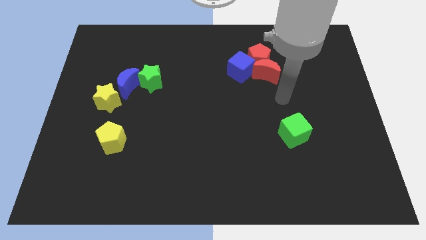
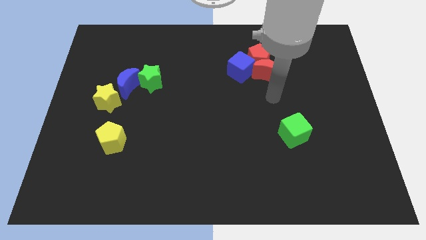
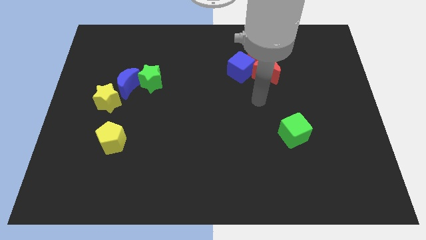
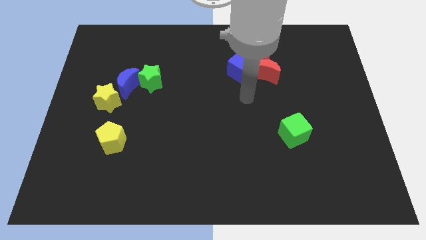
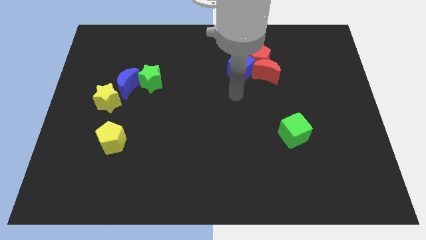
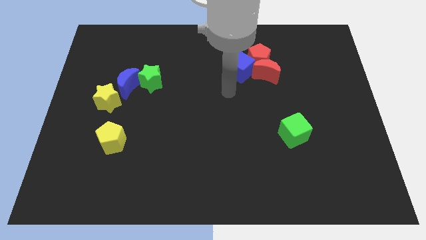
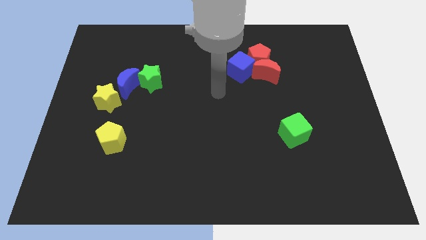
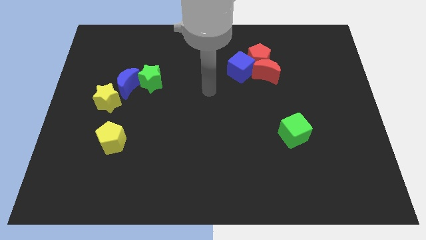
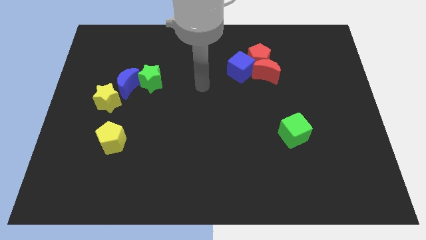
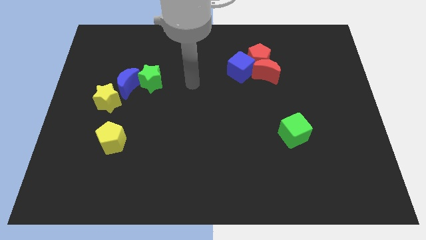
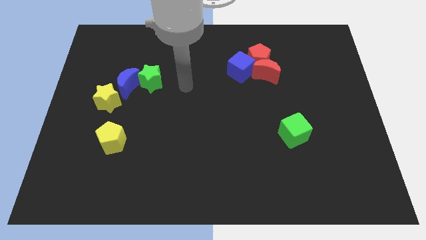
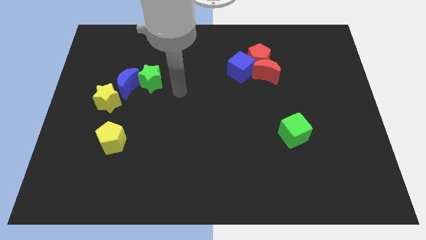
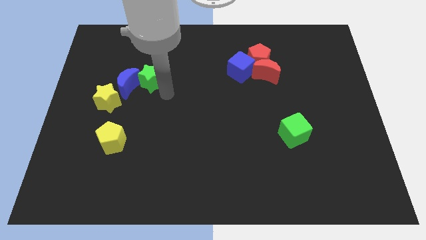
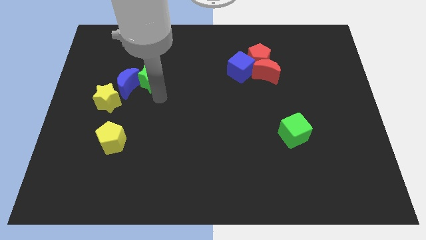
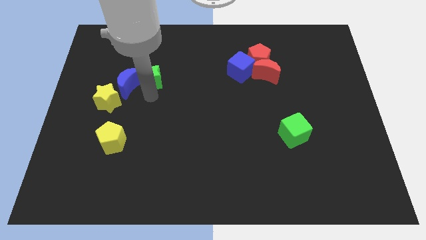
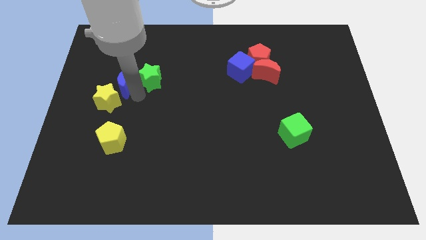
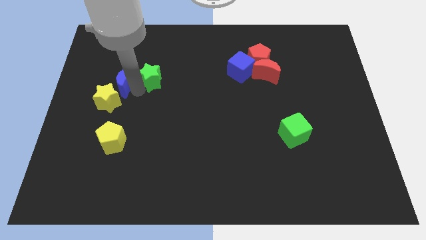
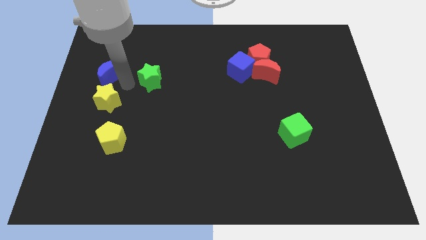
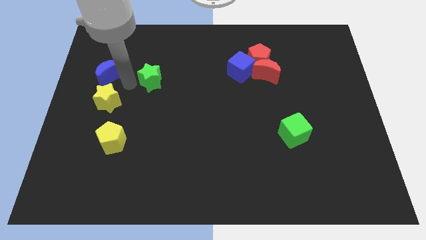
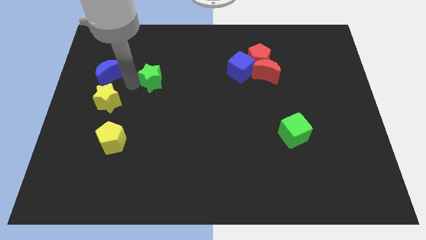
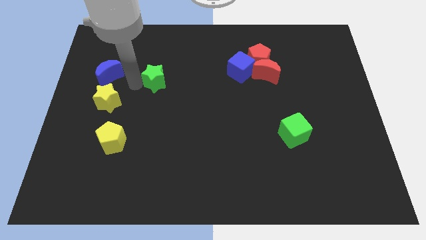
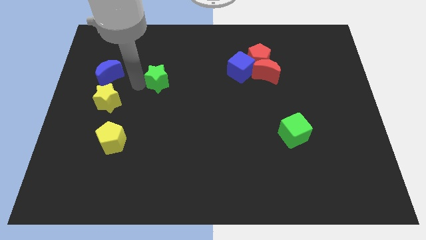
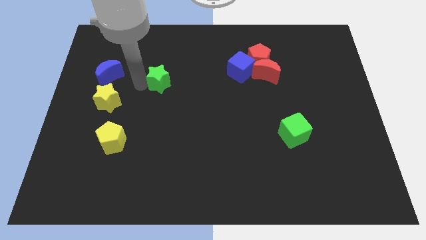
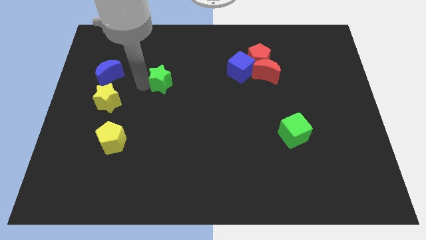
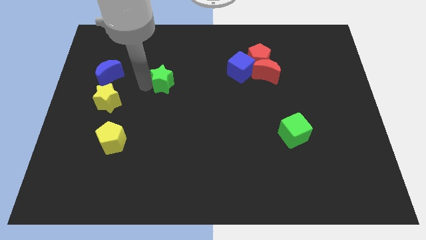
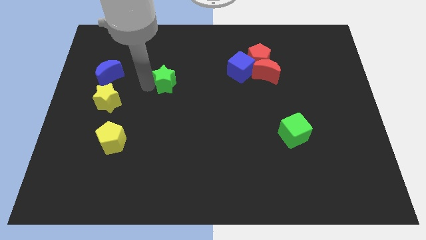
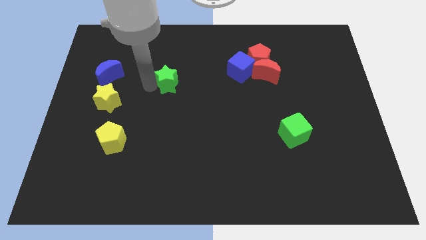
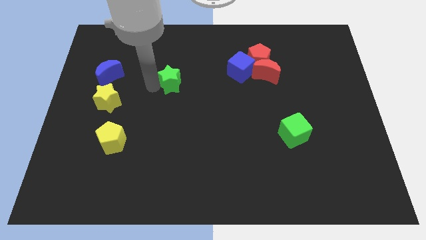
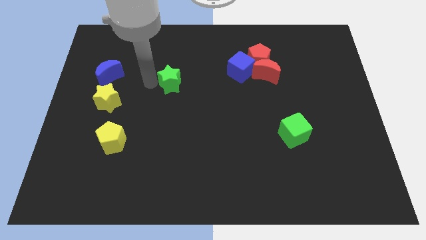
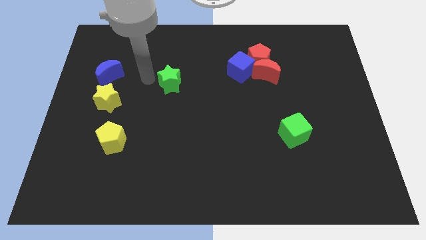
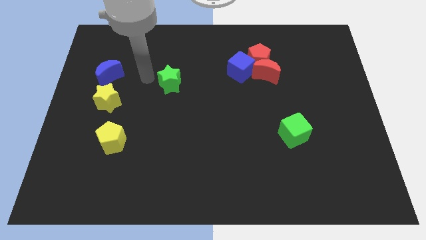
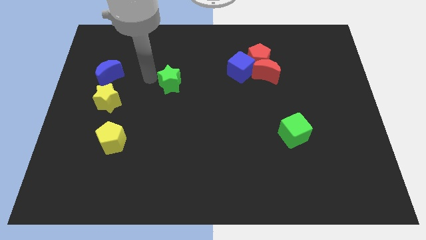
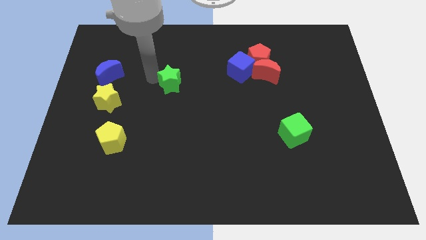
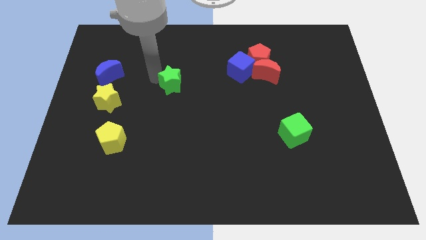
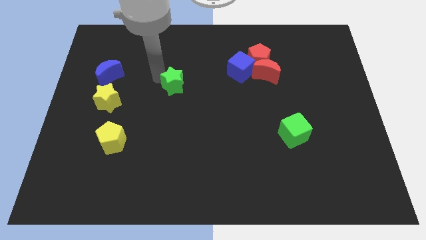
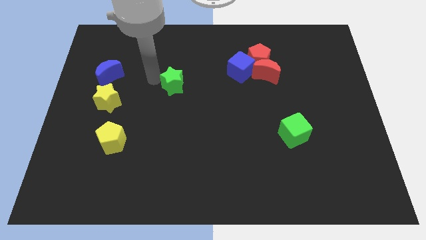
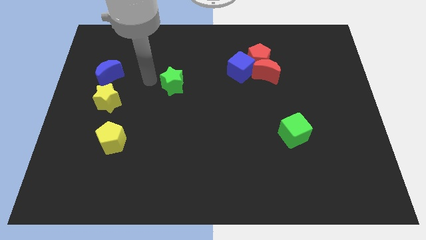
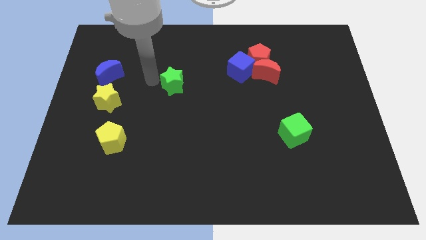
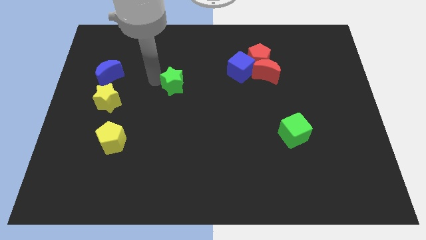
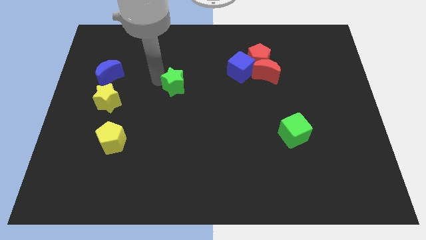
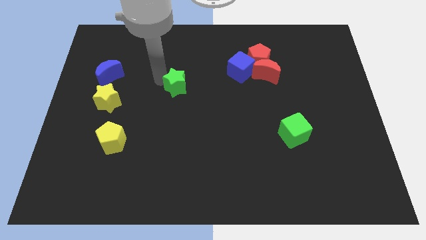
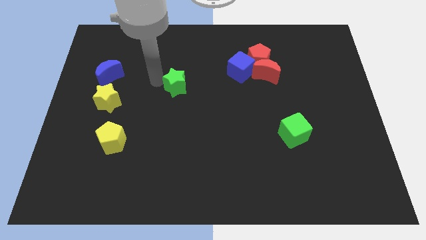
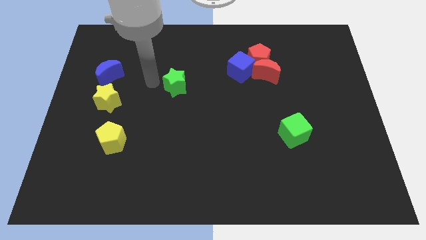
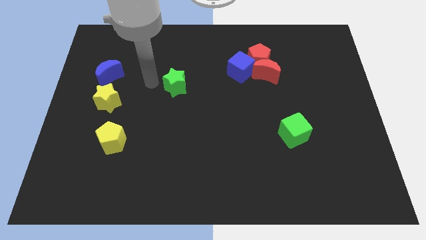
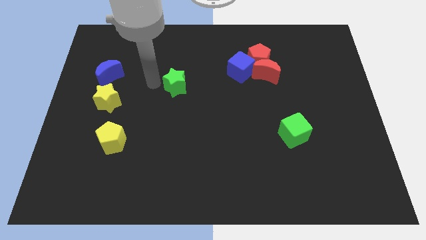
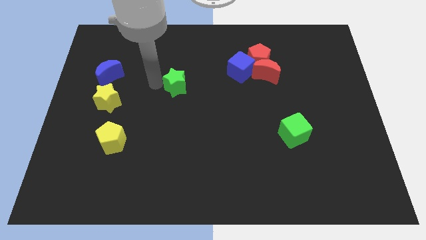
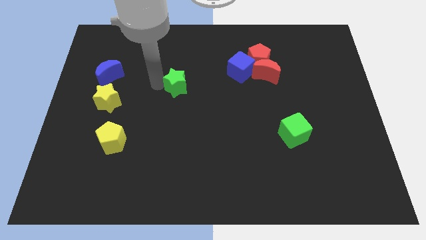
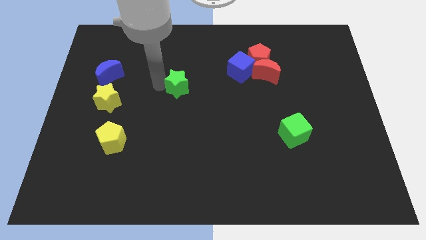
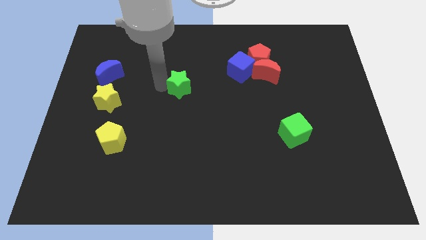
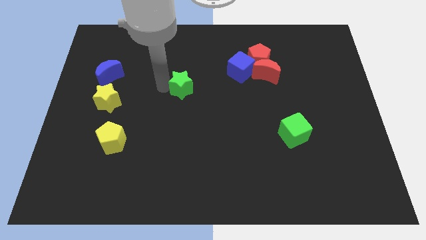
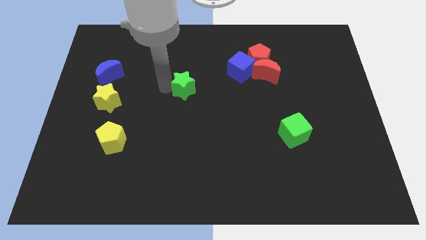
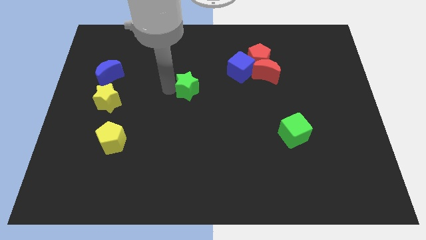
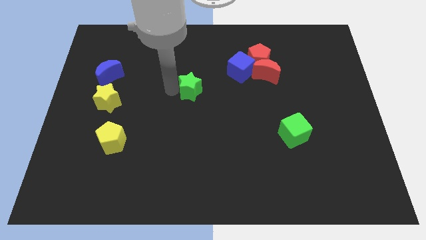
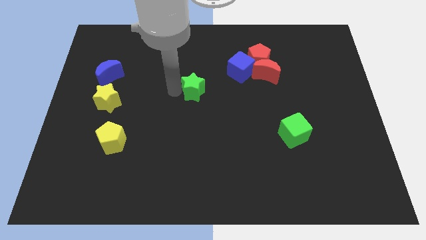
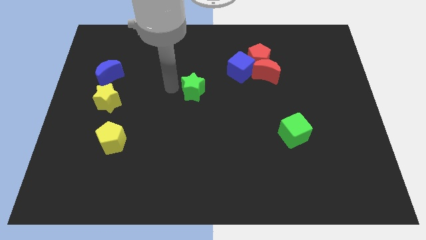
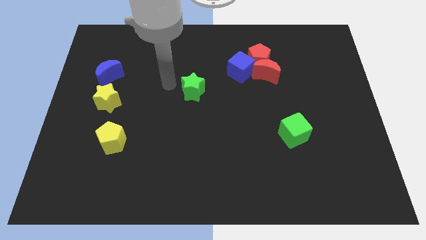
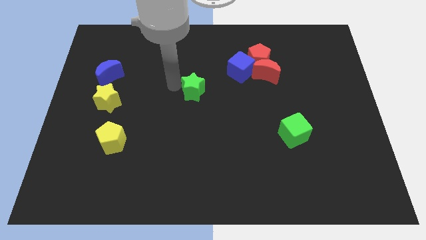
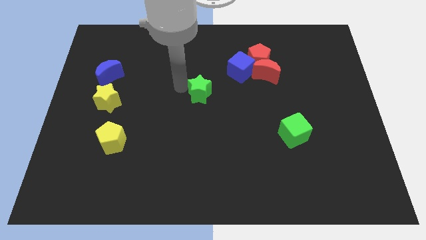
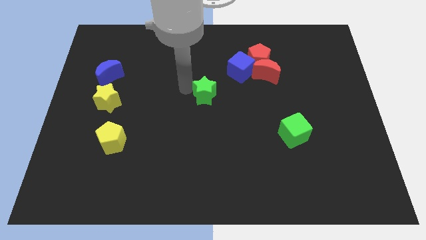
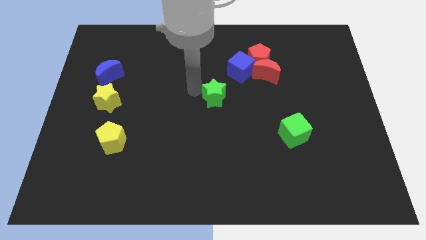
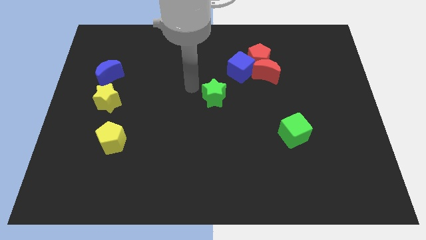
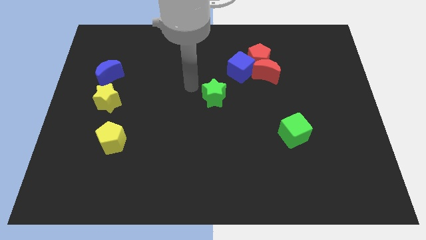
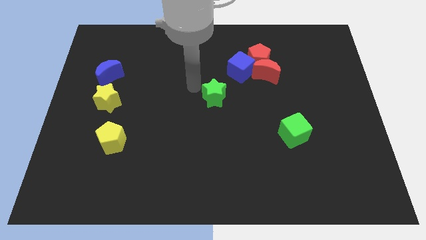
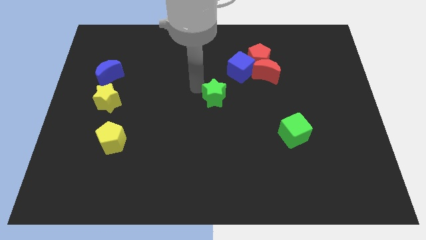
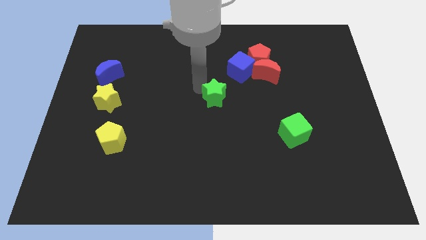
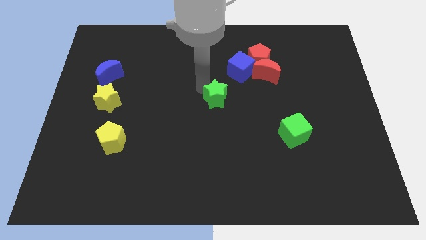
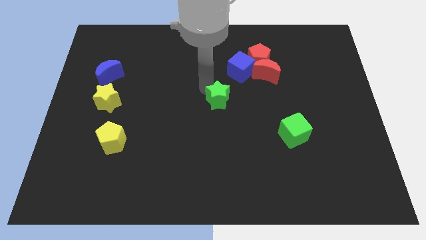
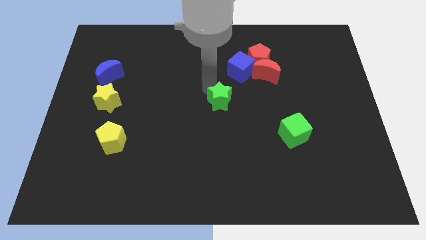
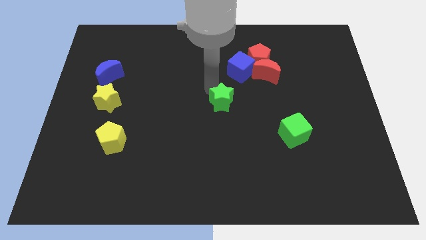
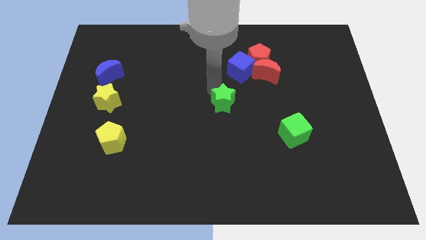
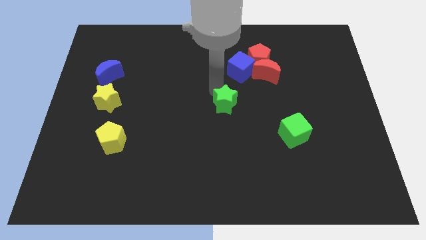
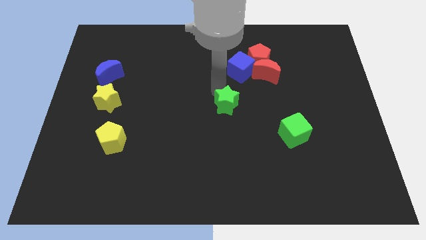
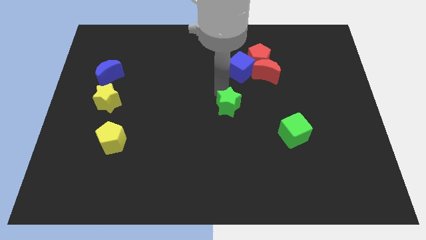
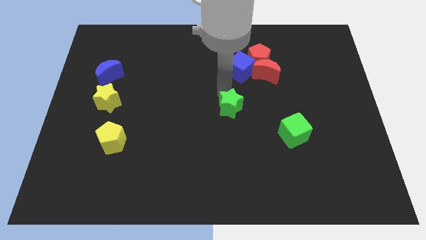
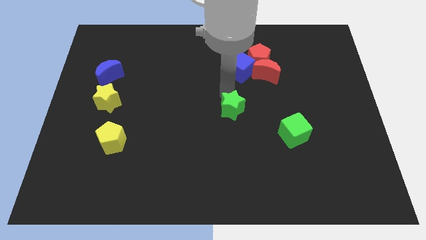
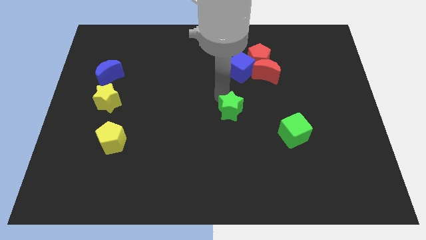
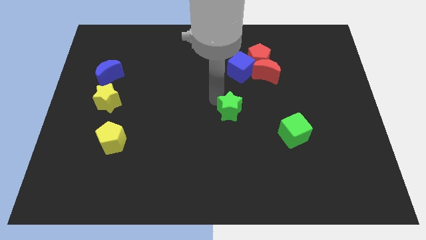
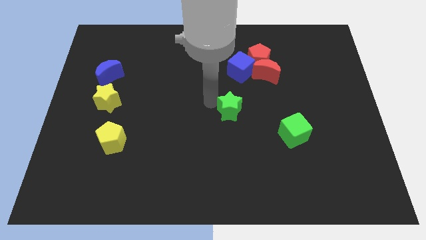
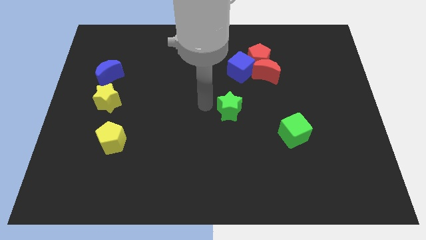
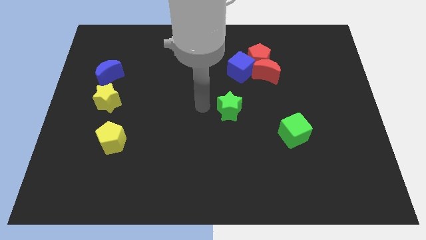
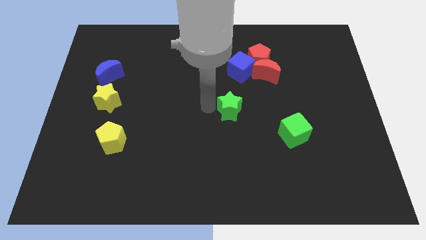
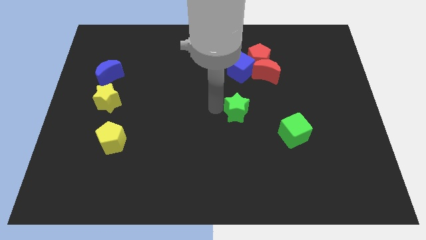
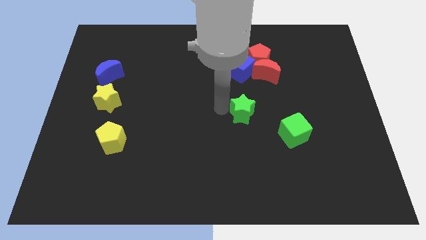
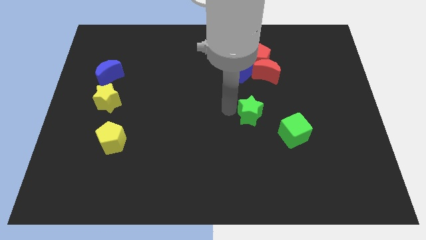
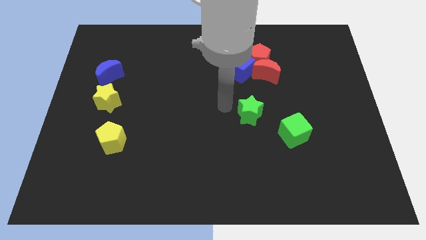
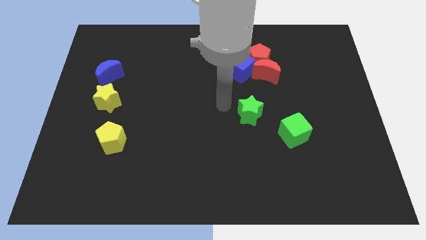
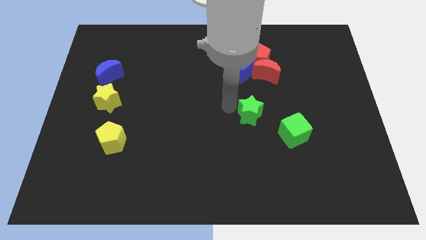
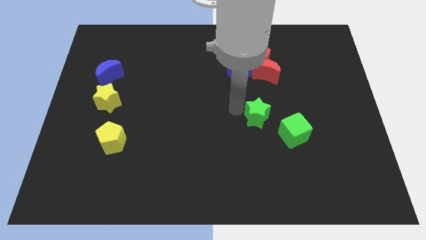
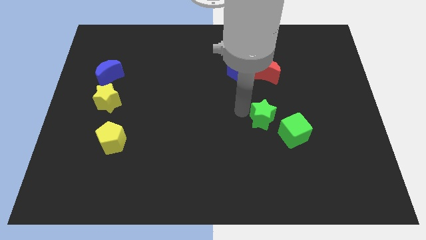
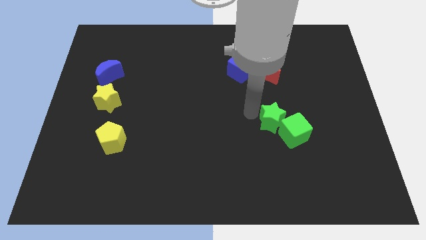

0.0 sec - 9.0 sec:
move the green star close to the green cube
